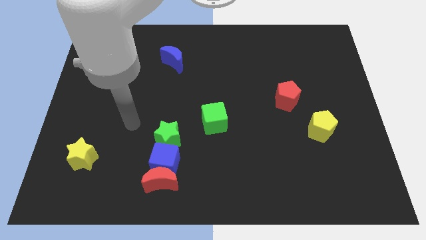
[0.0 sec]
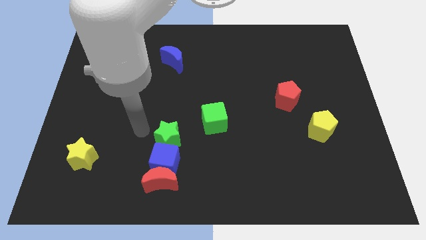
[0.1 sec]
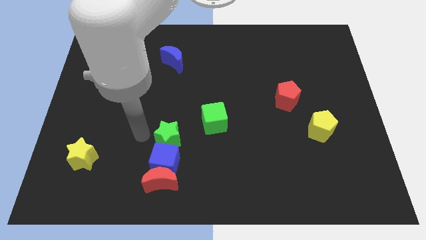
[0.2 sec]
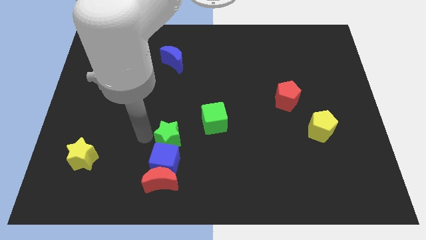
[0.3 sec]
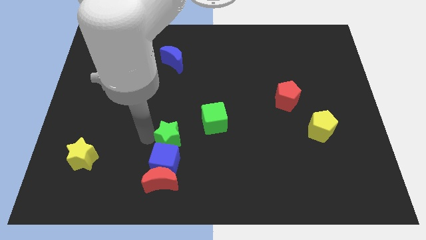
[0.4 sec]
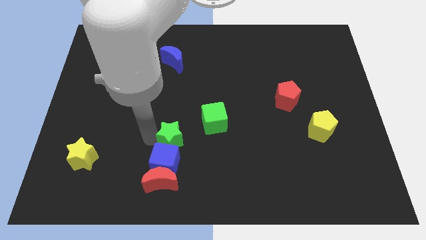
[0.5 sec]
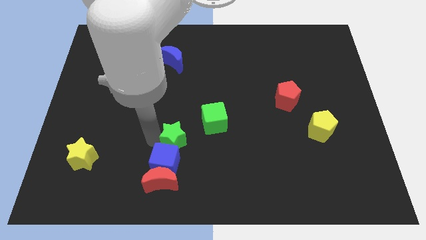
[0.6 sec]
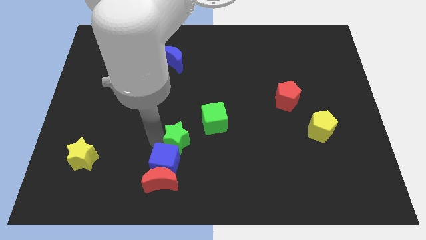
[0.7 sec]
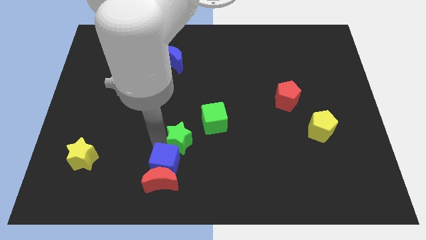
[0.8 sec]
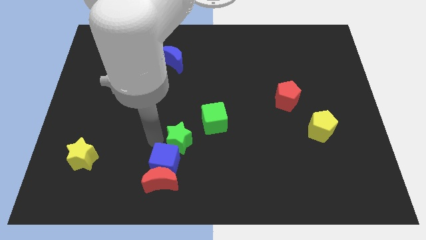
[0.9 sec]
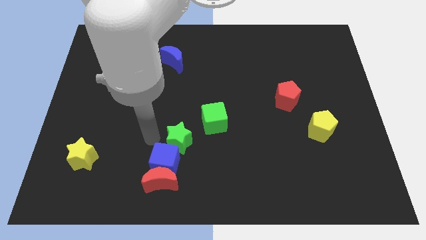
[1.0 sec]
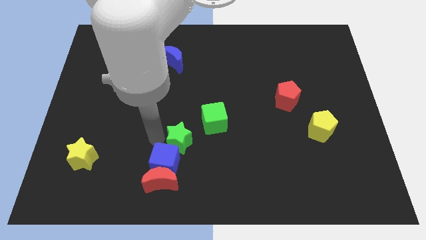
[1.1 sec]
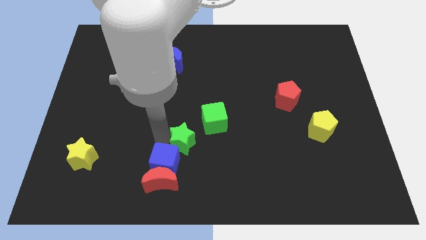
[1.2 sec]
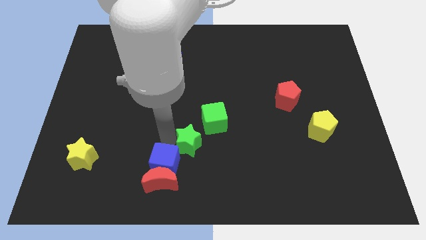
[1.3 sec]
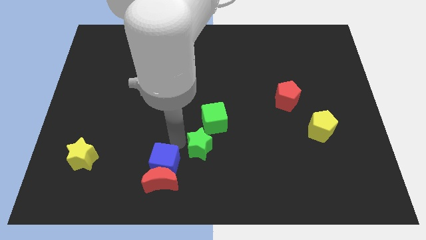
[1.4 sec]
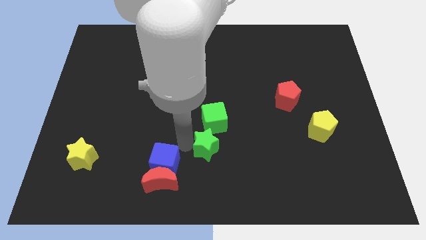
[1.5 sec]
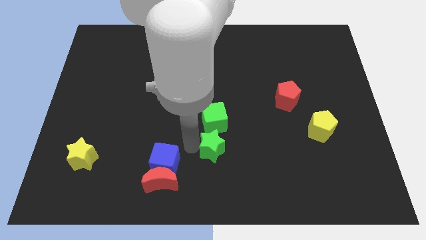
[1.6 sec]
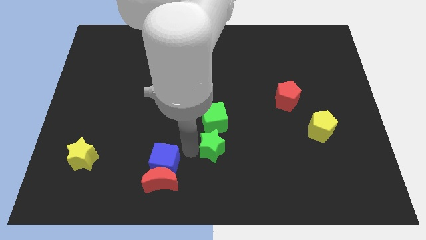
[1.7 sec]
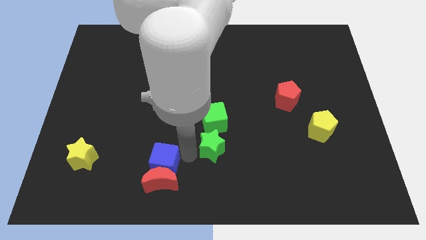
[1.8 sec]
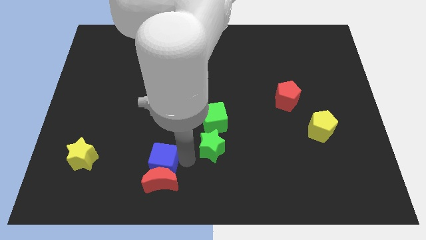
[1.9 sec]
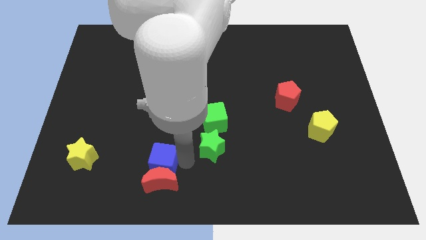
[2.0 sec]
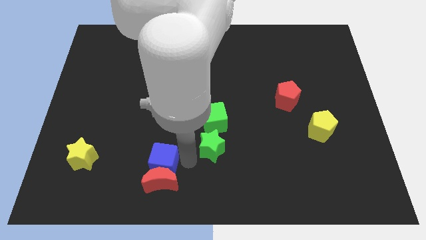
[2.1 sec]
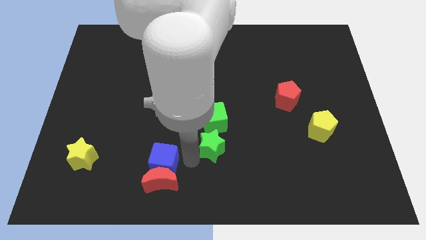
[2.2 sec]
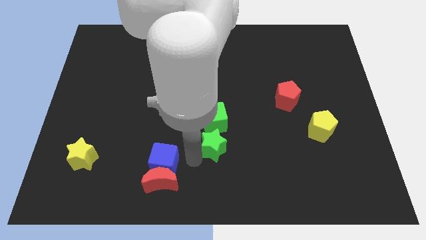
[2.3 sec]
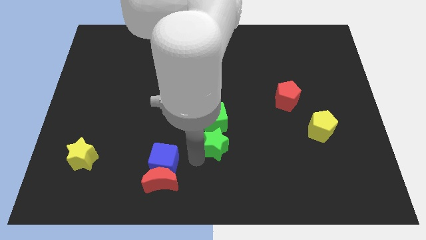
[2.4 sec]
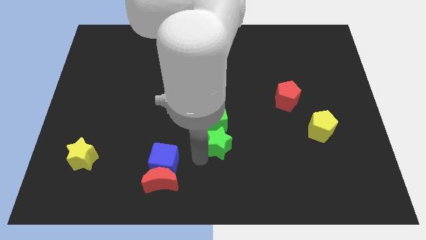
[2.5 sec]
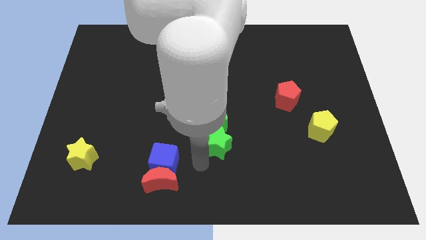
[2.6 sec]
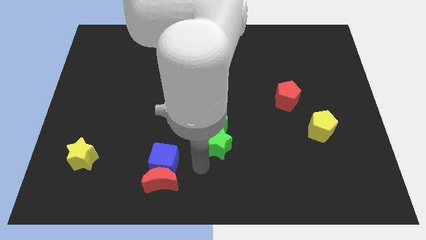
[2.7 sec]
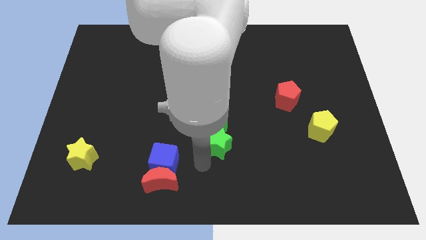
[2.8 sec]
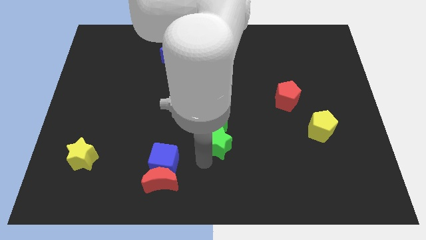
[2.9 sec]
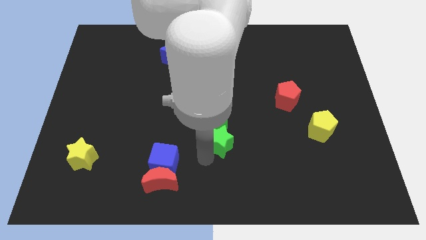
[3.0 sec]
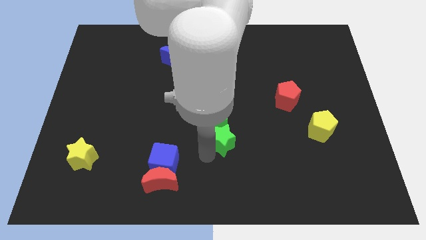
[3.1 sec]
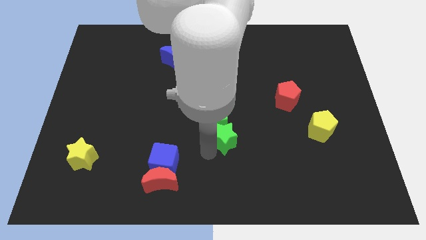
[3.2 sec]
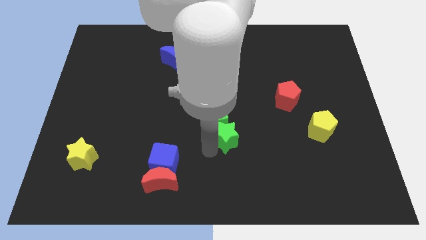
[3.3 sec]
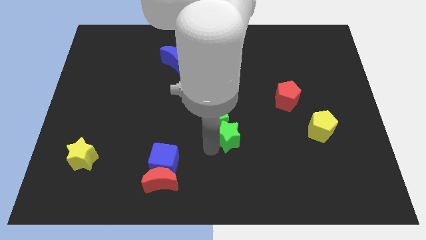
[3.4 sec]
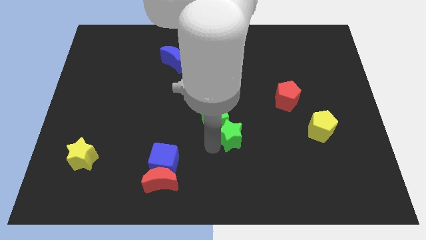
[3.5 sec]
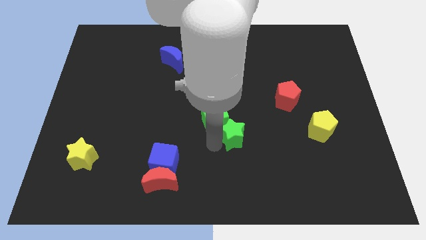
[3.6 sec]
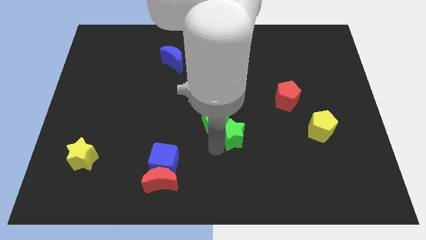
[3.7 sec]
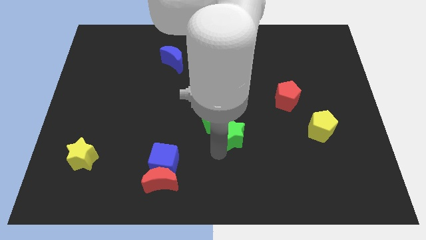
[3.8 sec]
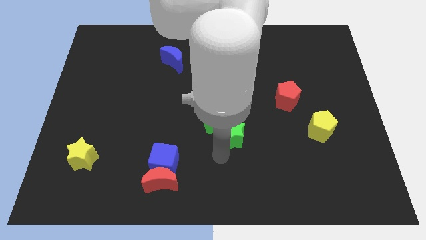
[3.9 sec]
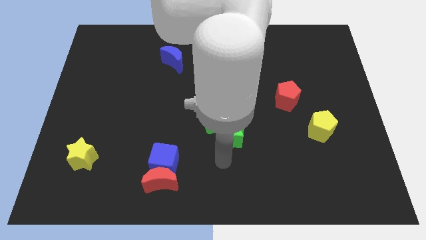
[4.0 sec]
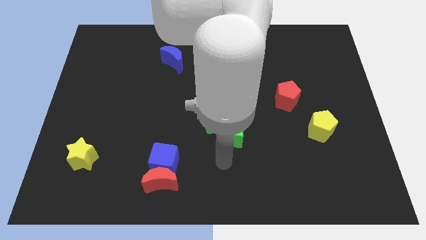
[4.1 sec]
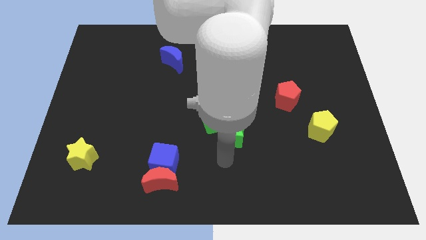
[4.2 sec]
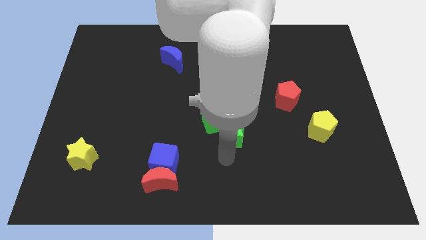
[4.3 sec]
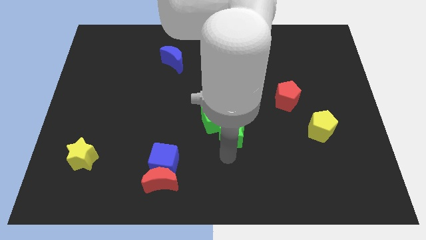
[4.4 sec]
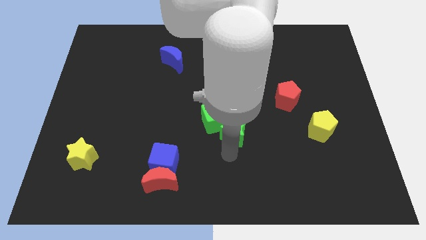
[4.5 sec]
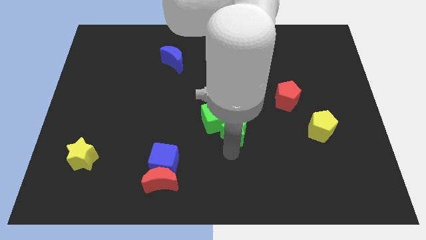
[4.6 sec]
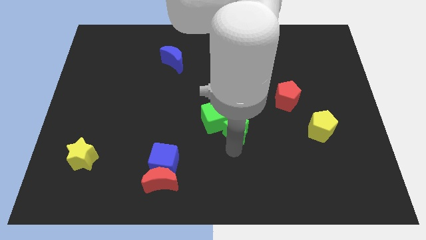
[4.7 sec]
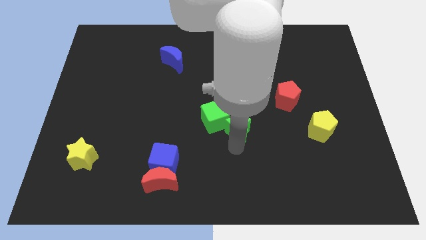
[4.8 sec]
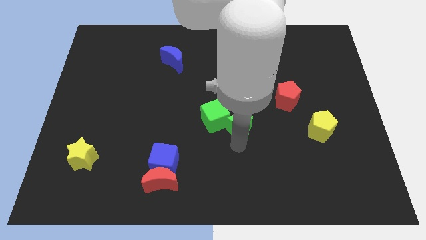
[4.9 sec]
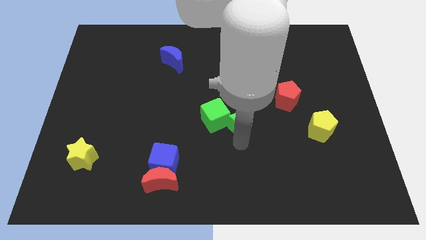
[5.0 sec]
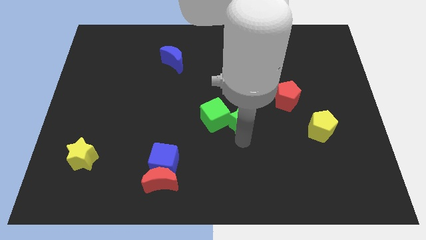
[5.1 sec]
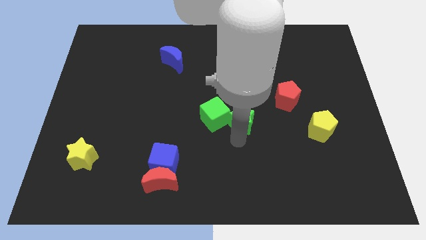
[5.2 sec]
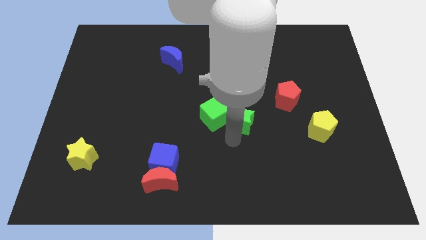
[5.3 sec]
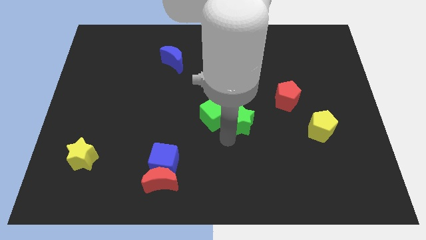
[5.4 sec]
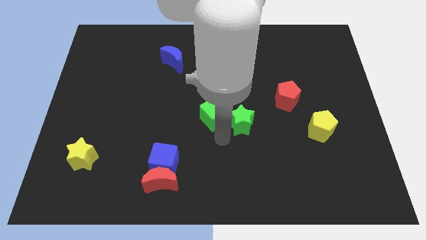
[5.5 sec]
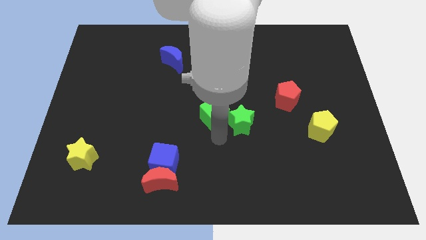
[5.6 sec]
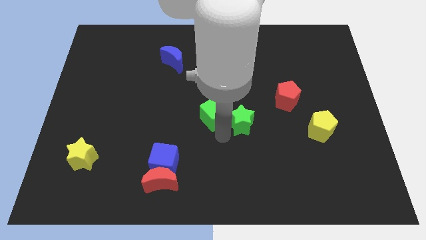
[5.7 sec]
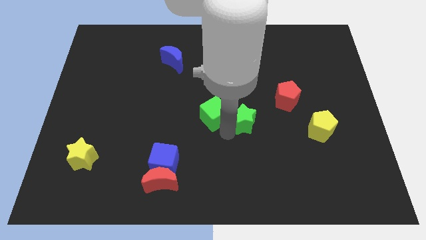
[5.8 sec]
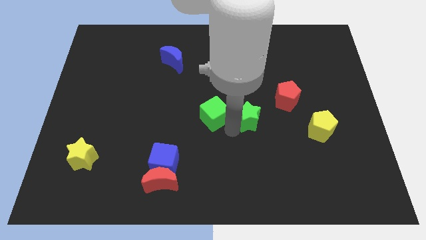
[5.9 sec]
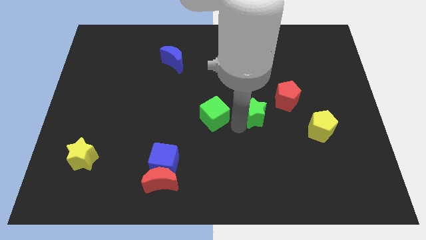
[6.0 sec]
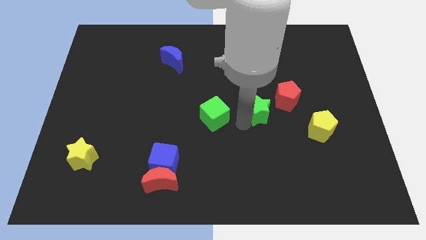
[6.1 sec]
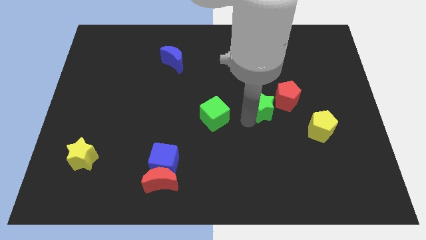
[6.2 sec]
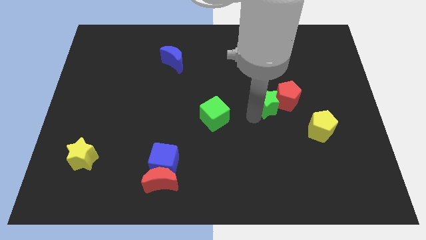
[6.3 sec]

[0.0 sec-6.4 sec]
move the green star to the red pentagon
